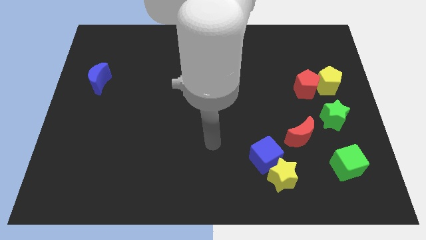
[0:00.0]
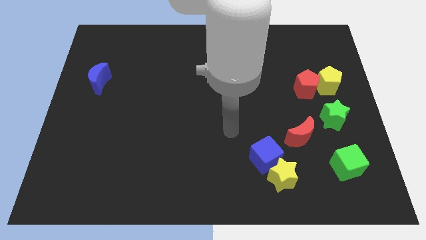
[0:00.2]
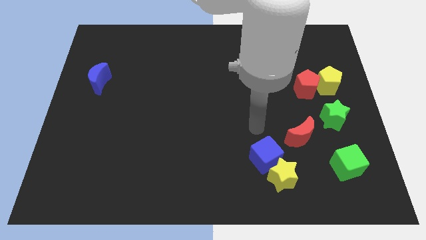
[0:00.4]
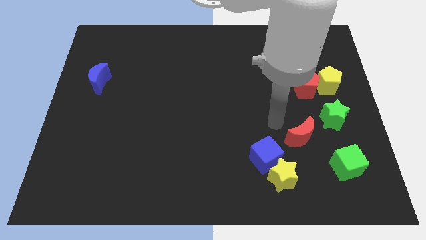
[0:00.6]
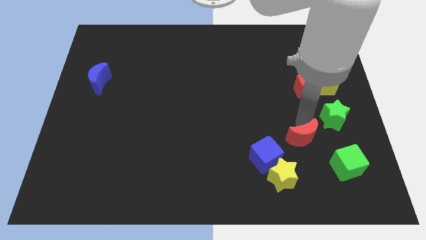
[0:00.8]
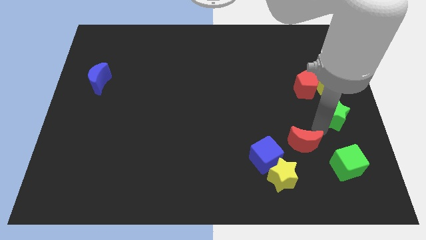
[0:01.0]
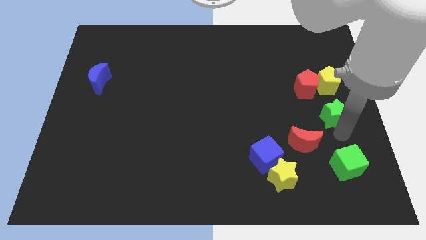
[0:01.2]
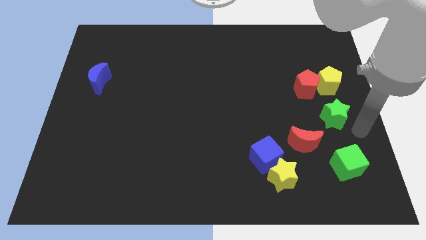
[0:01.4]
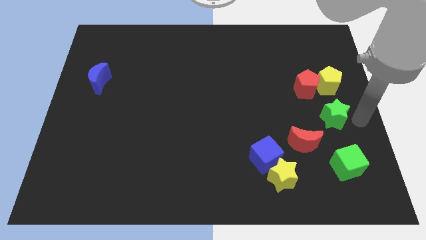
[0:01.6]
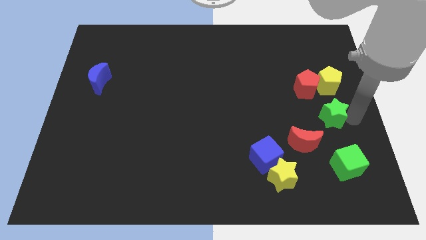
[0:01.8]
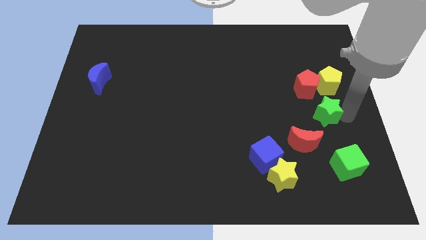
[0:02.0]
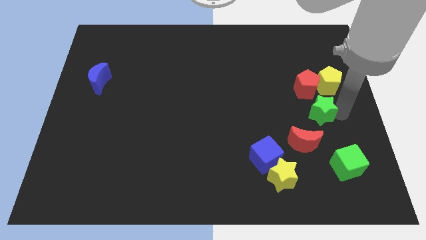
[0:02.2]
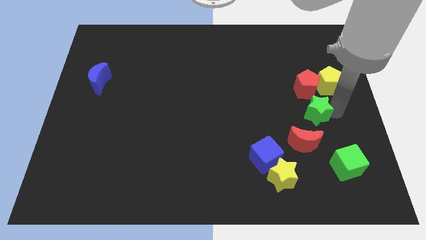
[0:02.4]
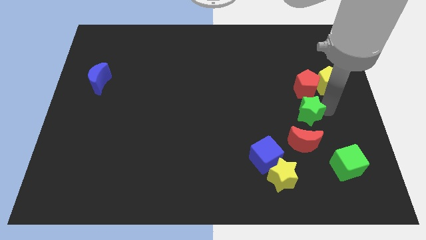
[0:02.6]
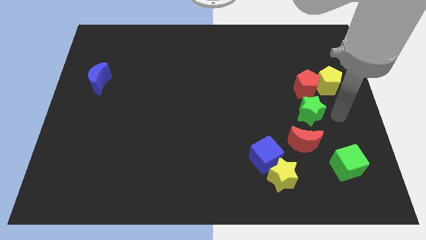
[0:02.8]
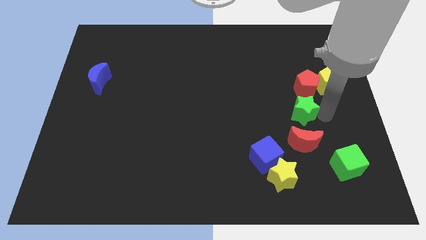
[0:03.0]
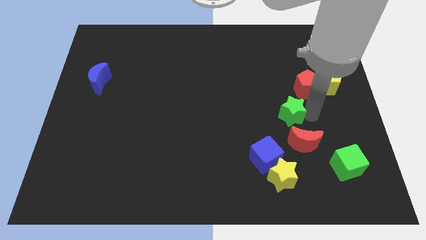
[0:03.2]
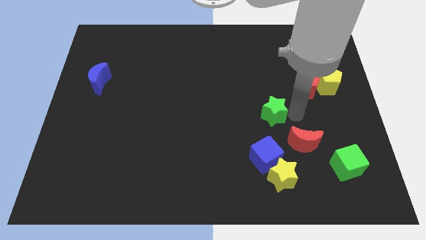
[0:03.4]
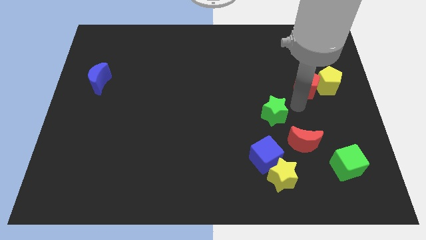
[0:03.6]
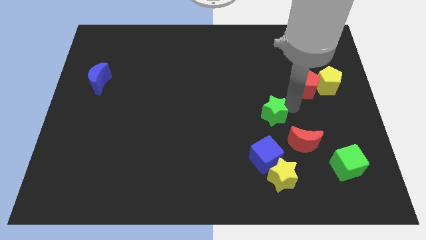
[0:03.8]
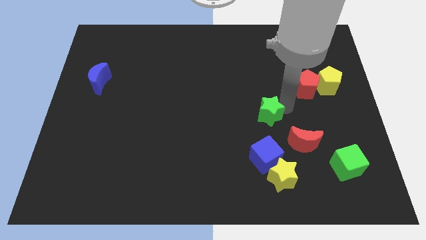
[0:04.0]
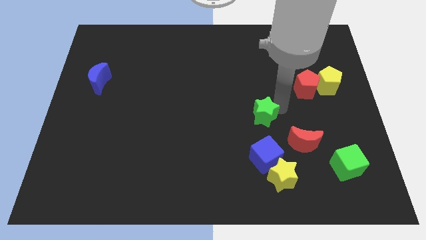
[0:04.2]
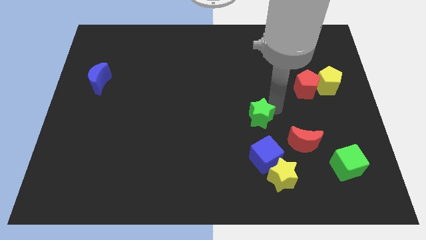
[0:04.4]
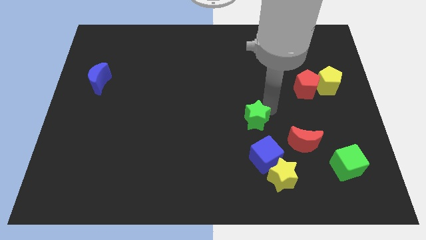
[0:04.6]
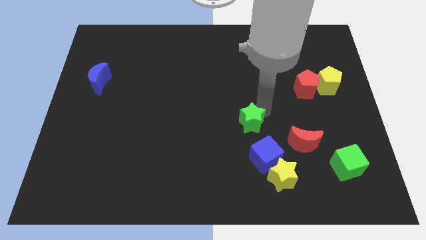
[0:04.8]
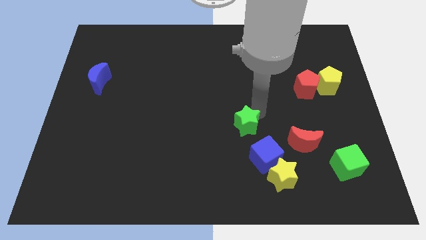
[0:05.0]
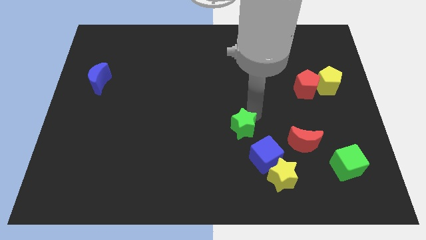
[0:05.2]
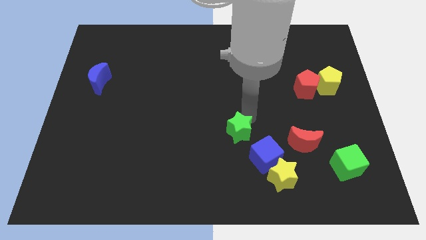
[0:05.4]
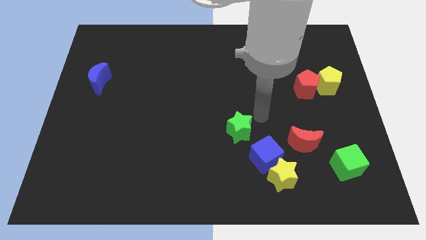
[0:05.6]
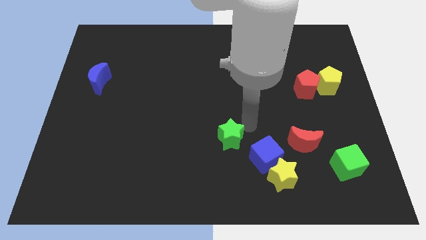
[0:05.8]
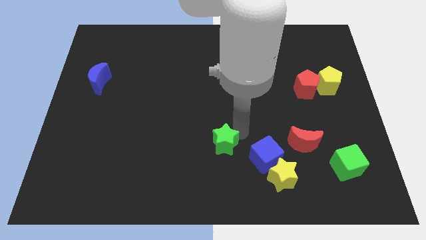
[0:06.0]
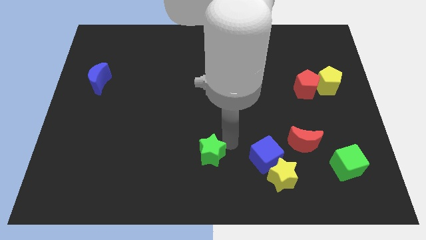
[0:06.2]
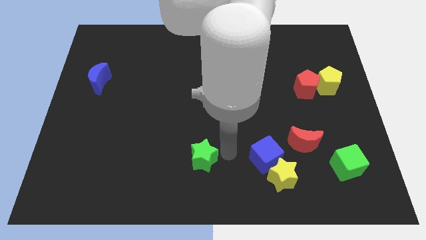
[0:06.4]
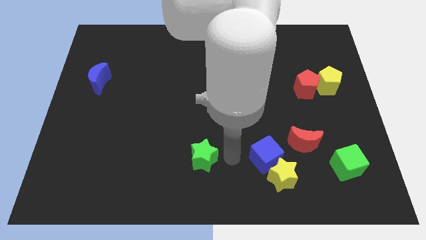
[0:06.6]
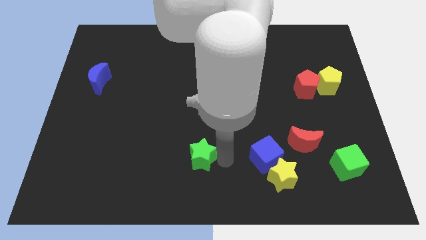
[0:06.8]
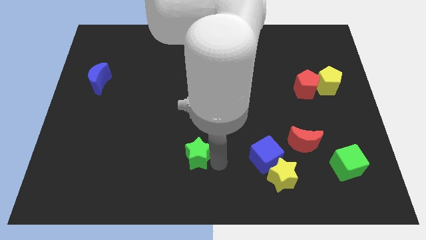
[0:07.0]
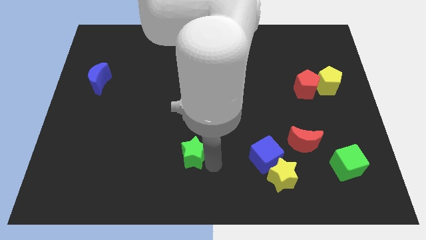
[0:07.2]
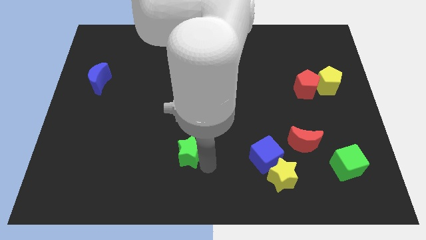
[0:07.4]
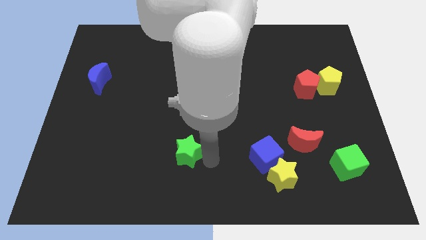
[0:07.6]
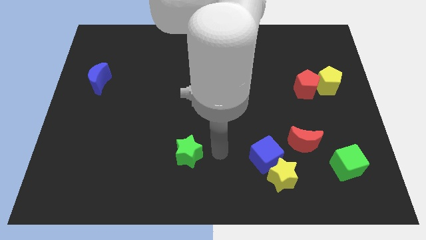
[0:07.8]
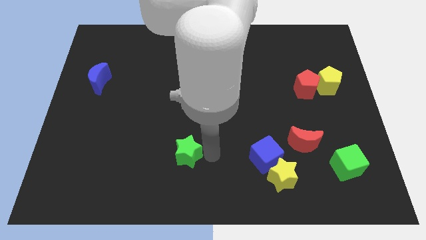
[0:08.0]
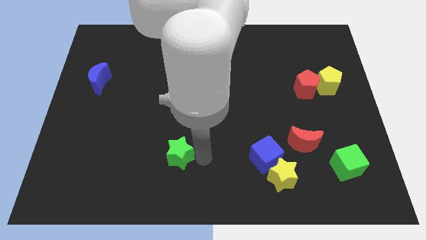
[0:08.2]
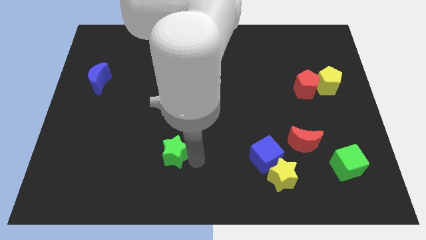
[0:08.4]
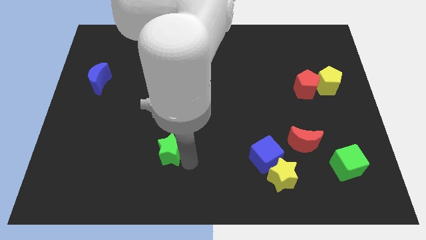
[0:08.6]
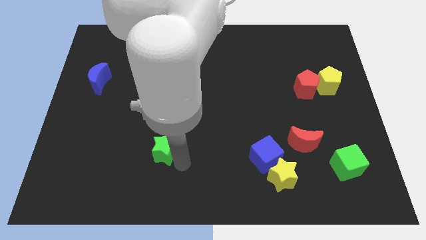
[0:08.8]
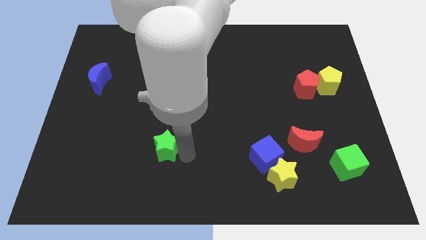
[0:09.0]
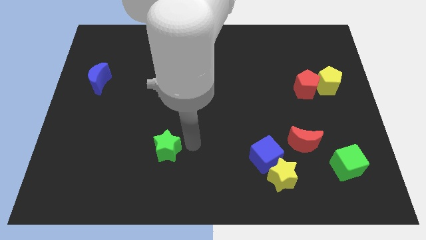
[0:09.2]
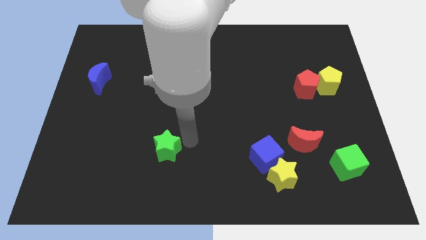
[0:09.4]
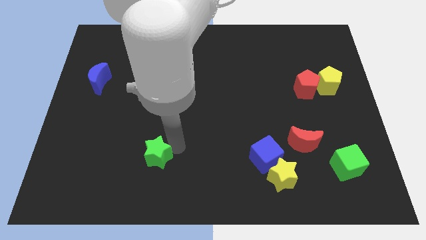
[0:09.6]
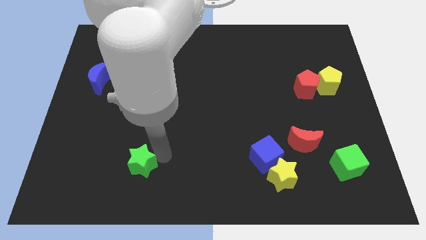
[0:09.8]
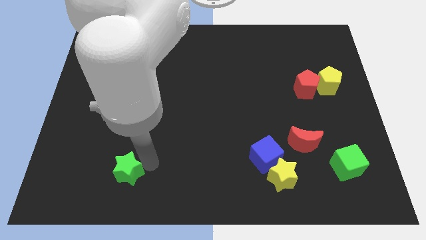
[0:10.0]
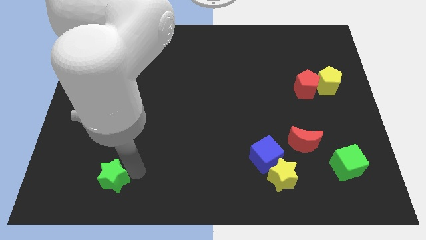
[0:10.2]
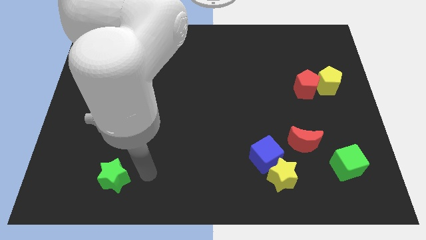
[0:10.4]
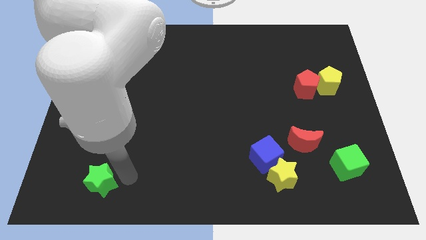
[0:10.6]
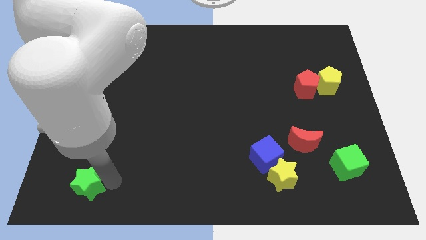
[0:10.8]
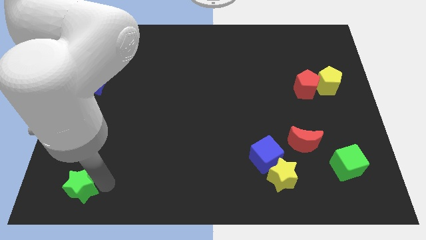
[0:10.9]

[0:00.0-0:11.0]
move the green star to the bottom left
